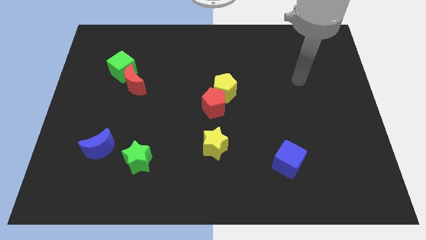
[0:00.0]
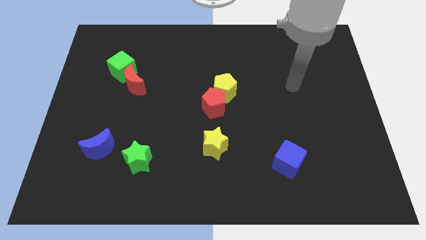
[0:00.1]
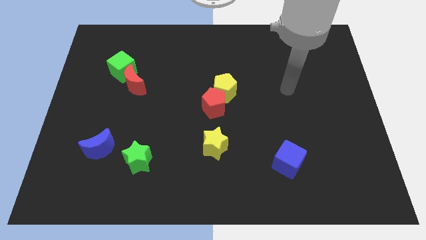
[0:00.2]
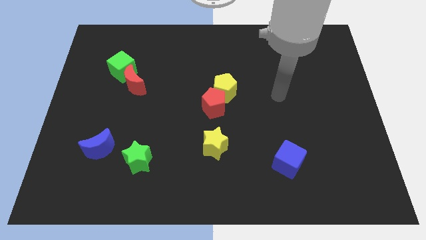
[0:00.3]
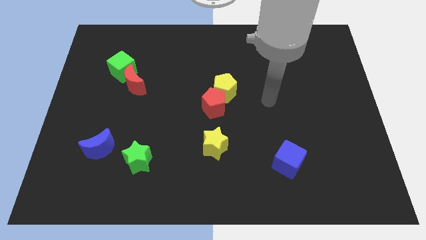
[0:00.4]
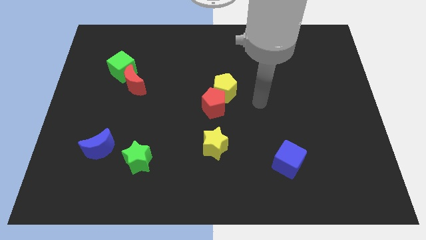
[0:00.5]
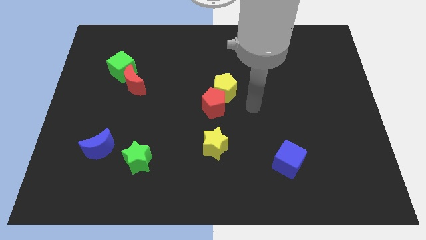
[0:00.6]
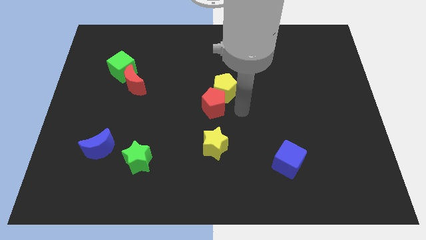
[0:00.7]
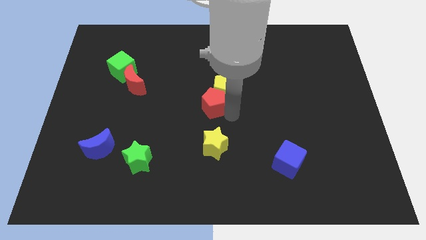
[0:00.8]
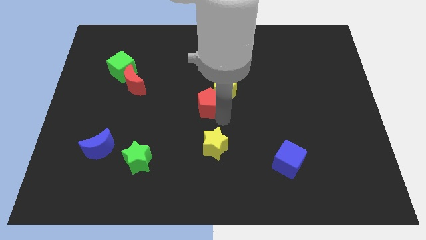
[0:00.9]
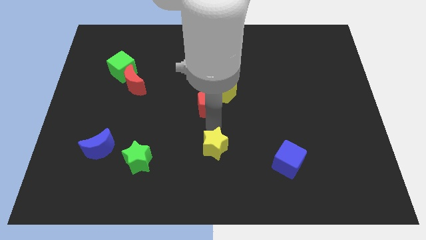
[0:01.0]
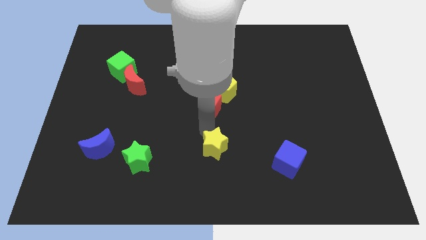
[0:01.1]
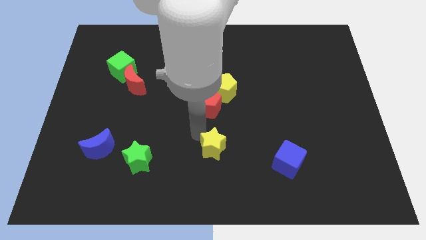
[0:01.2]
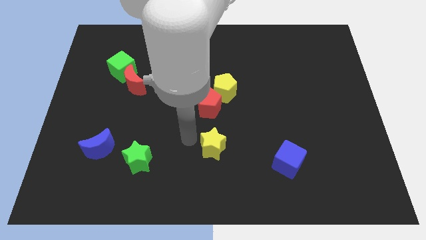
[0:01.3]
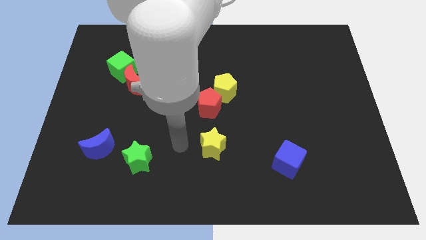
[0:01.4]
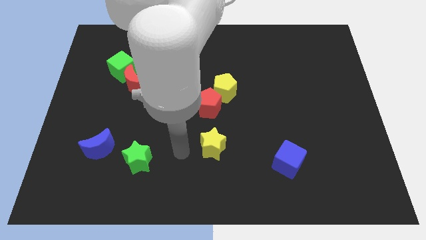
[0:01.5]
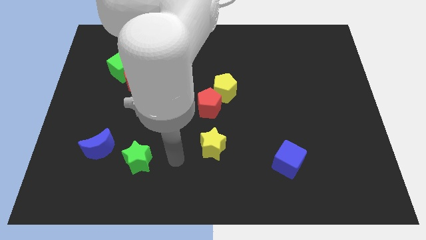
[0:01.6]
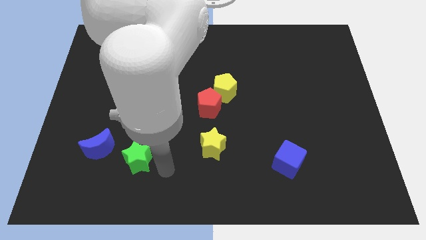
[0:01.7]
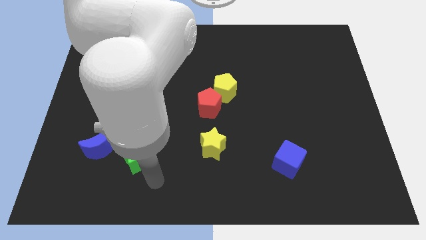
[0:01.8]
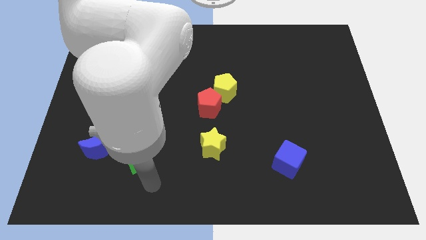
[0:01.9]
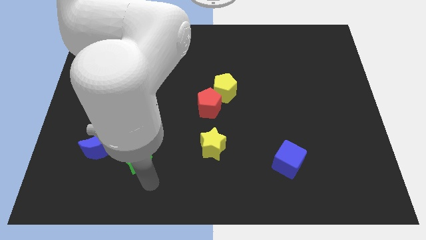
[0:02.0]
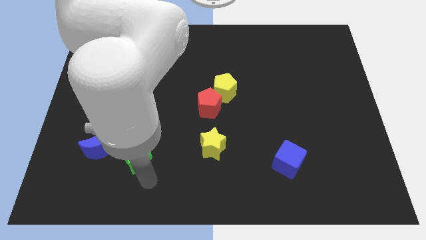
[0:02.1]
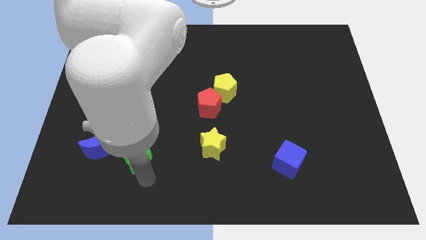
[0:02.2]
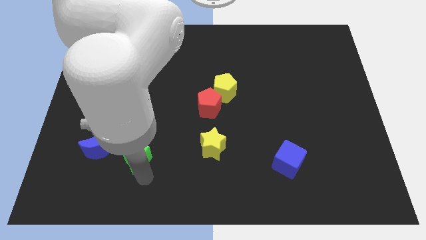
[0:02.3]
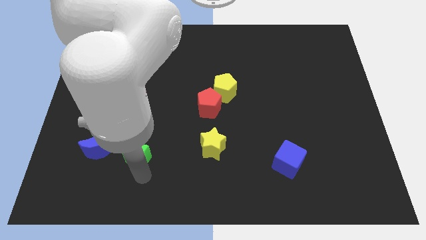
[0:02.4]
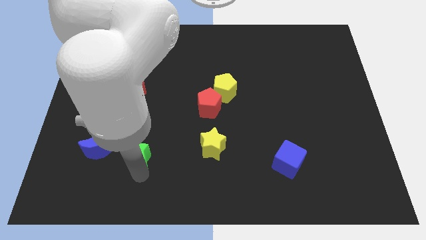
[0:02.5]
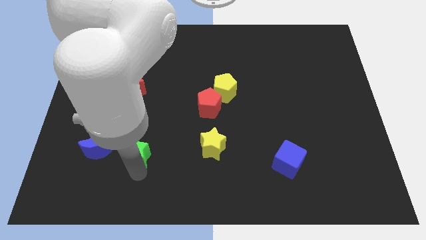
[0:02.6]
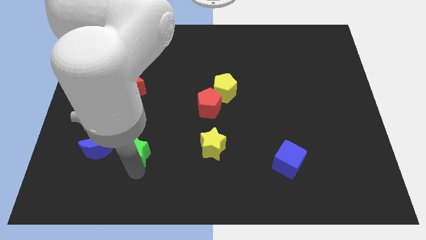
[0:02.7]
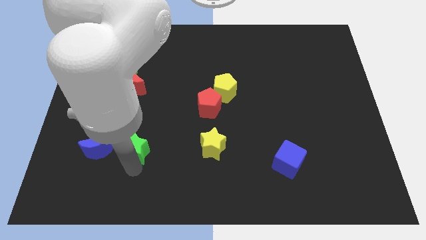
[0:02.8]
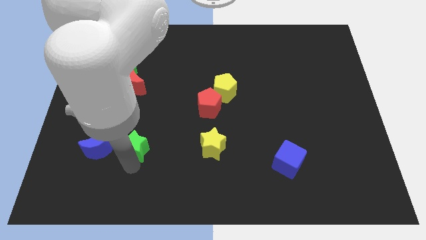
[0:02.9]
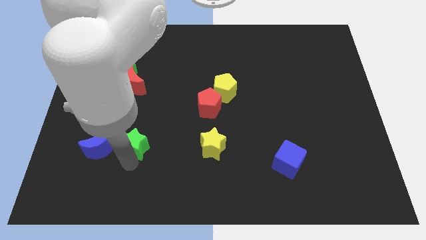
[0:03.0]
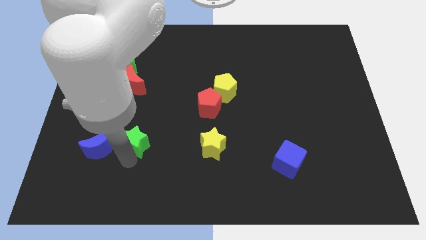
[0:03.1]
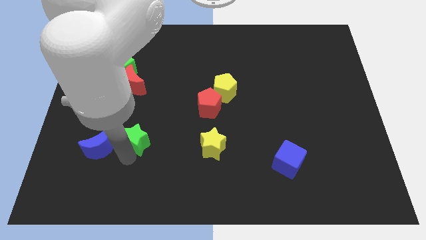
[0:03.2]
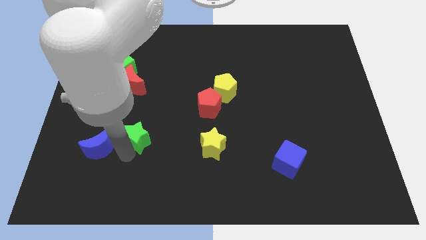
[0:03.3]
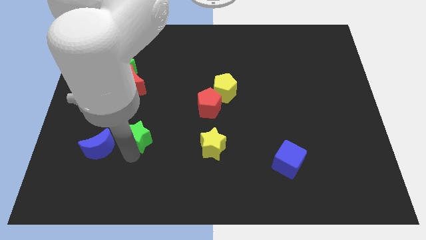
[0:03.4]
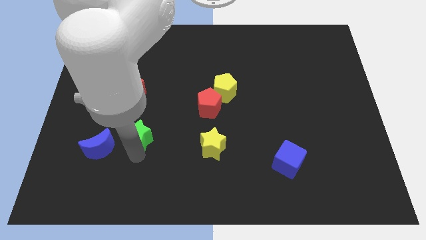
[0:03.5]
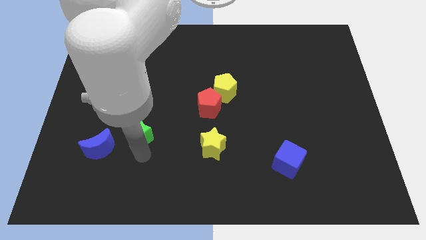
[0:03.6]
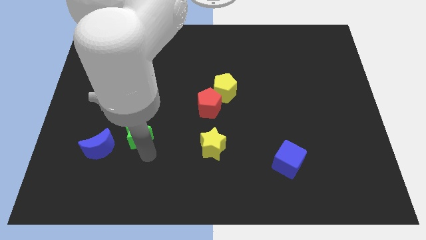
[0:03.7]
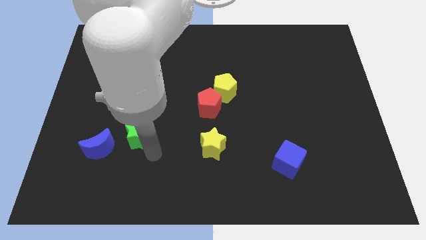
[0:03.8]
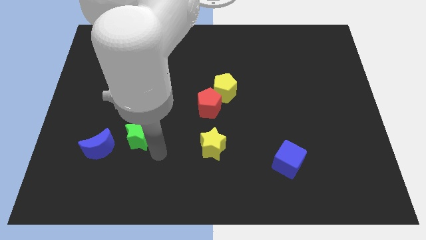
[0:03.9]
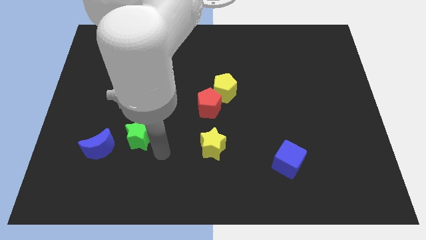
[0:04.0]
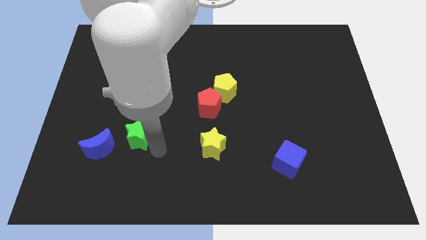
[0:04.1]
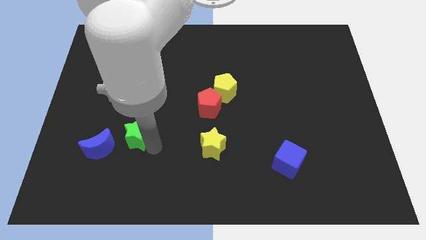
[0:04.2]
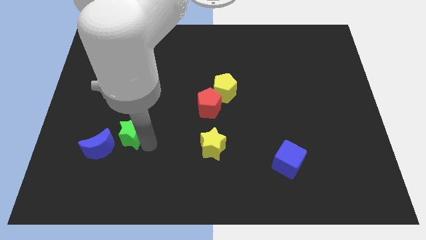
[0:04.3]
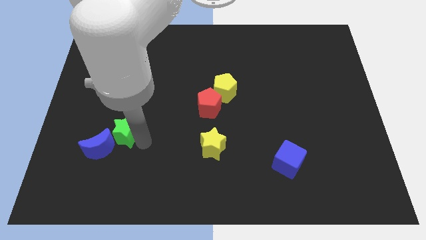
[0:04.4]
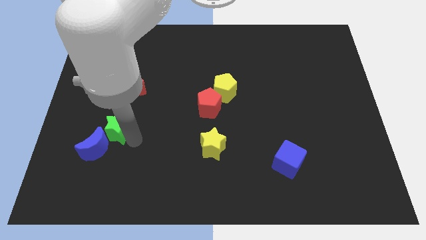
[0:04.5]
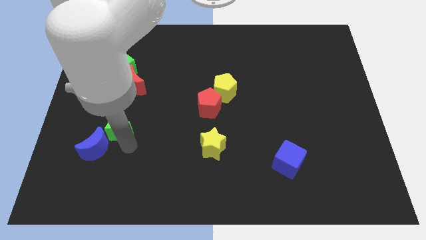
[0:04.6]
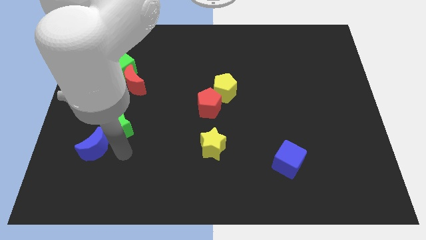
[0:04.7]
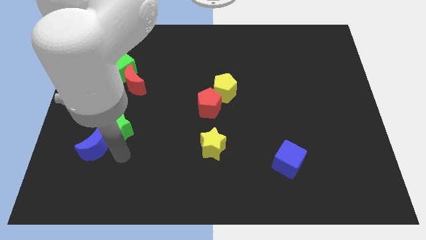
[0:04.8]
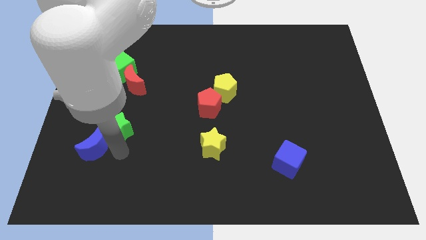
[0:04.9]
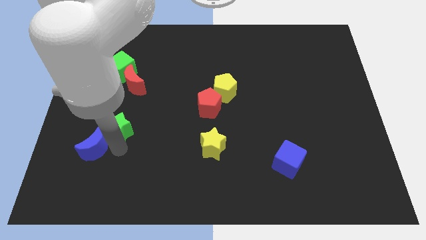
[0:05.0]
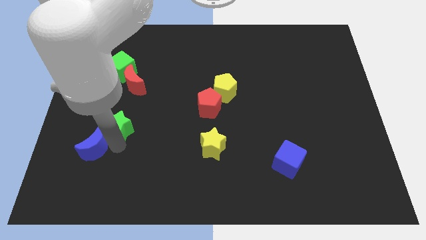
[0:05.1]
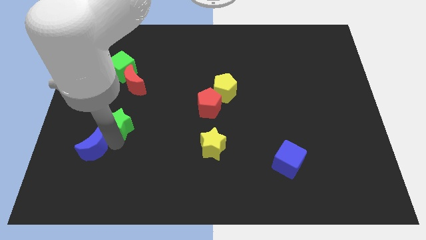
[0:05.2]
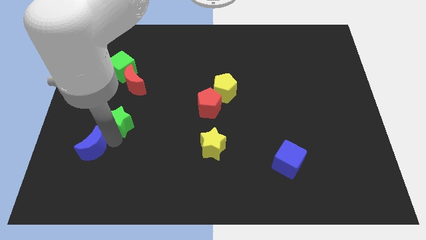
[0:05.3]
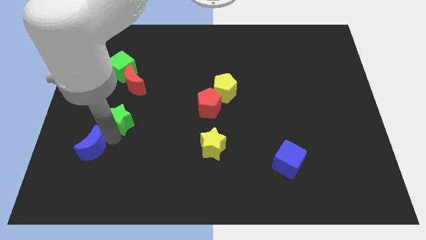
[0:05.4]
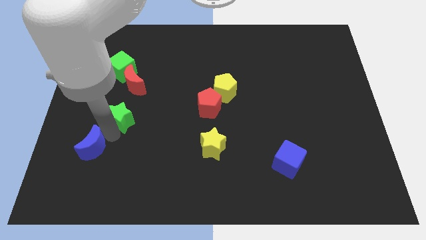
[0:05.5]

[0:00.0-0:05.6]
push the green star to the bottom of the green cube

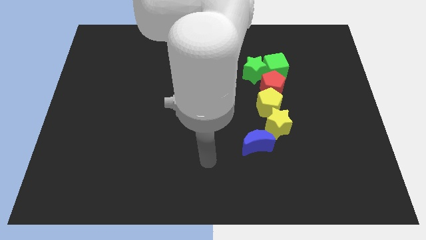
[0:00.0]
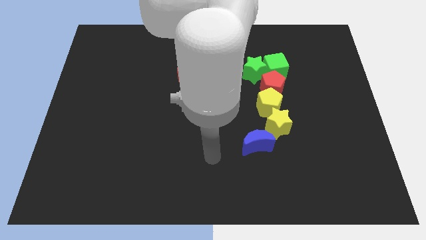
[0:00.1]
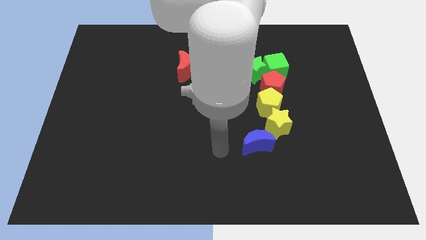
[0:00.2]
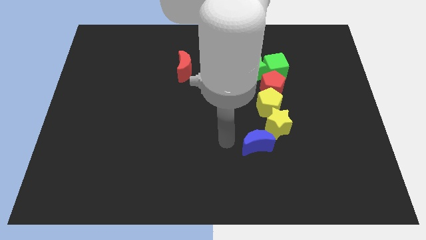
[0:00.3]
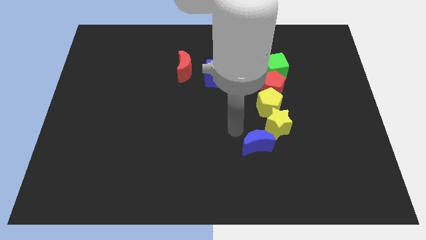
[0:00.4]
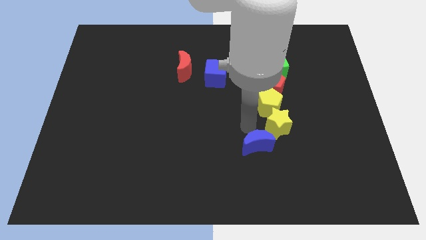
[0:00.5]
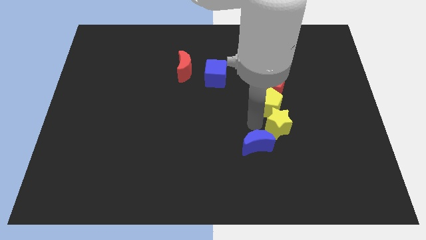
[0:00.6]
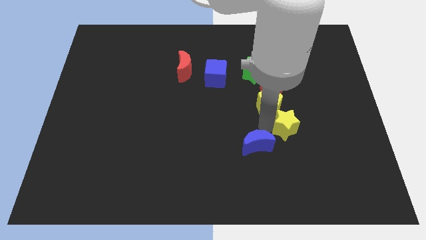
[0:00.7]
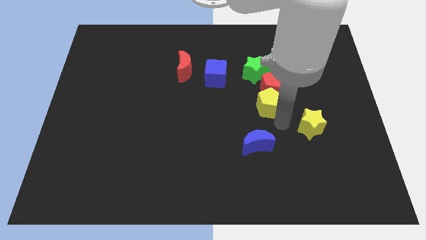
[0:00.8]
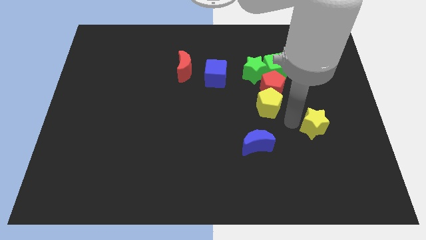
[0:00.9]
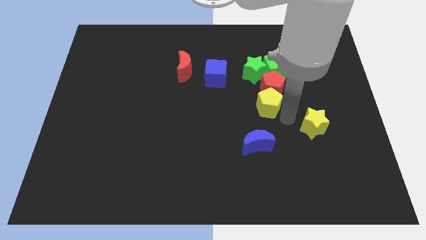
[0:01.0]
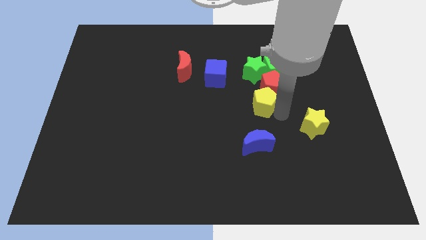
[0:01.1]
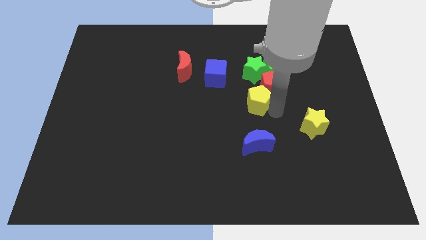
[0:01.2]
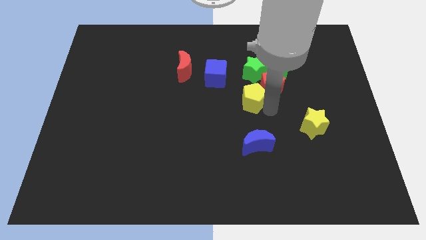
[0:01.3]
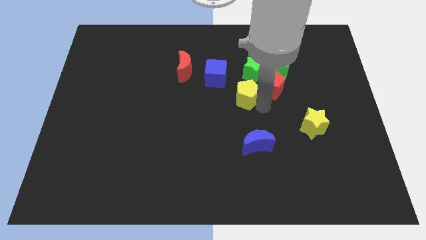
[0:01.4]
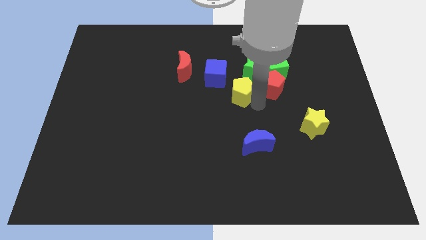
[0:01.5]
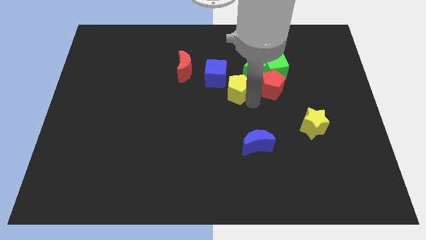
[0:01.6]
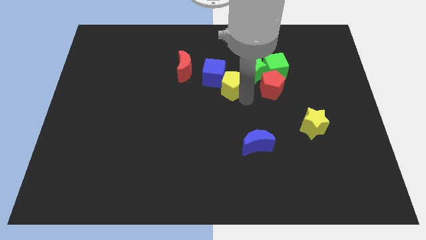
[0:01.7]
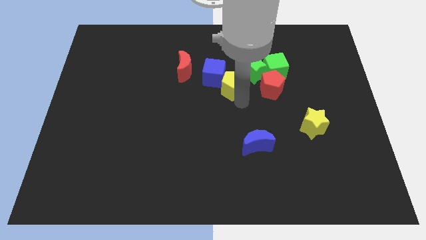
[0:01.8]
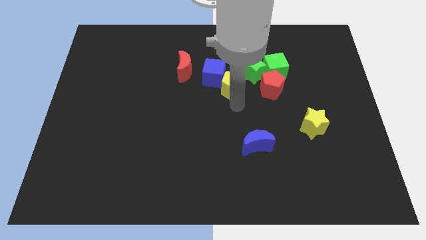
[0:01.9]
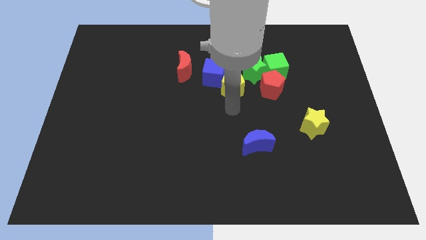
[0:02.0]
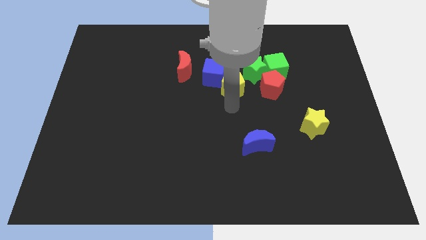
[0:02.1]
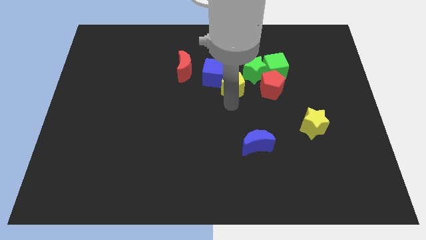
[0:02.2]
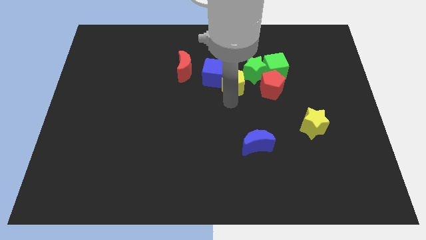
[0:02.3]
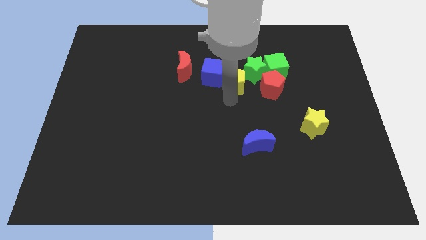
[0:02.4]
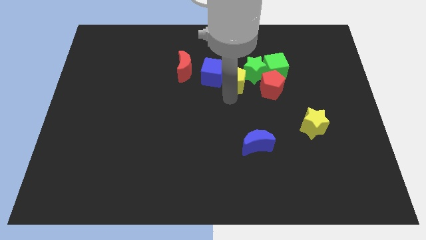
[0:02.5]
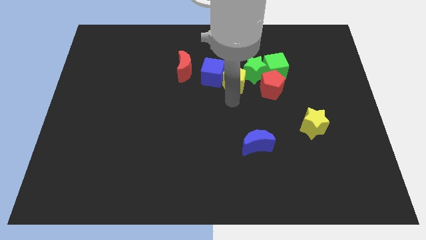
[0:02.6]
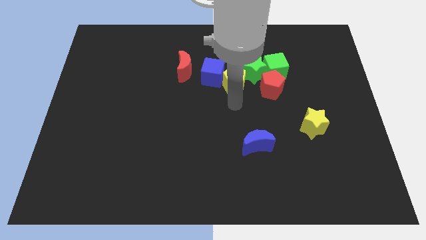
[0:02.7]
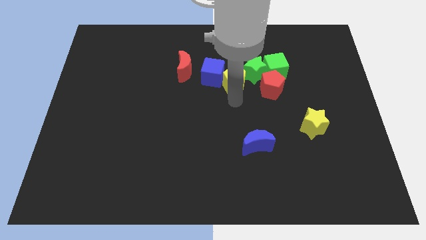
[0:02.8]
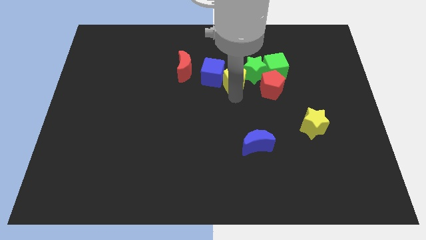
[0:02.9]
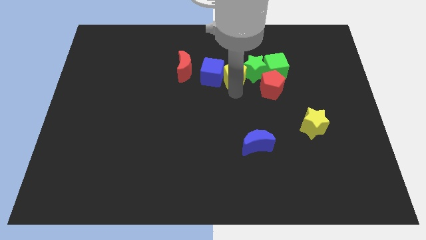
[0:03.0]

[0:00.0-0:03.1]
move the yellow pentagon to the top left side of the red pentagon
